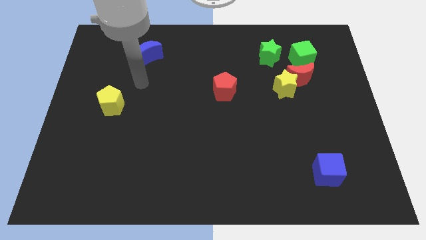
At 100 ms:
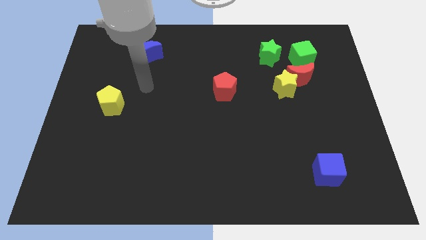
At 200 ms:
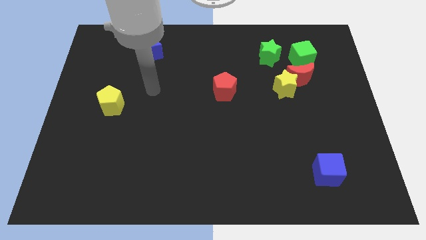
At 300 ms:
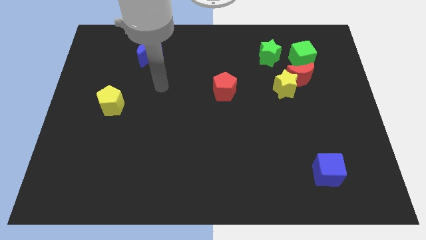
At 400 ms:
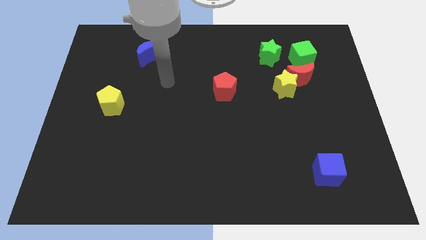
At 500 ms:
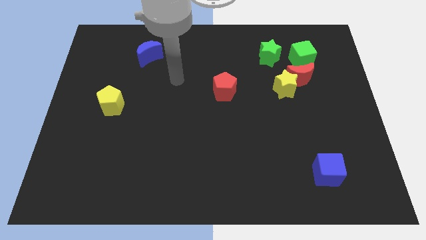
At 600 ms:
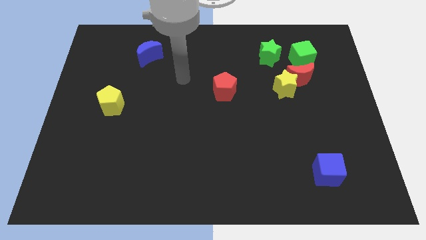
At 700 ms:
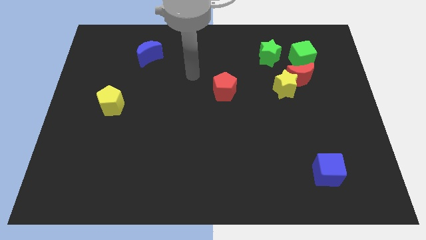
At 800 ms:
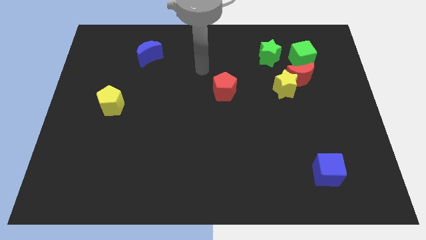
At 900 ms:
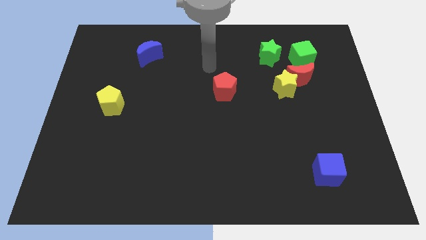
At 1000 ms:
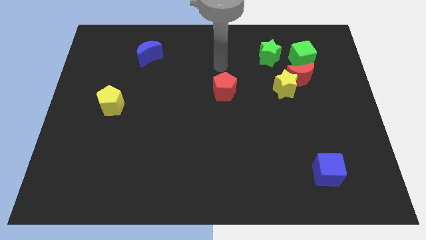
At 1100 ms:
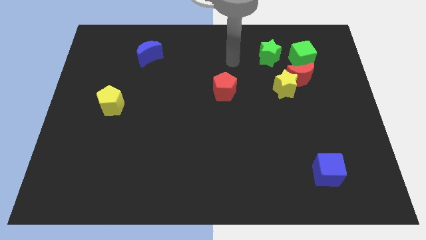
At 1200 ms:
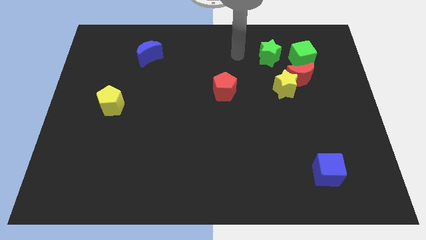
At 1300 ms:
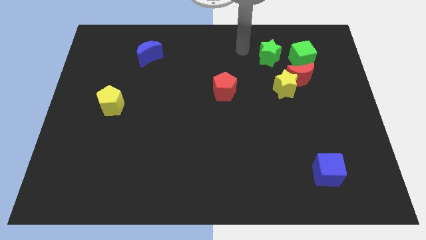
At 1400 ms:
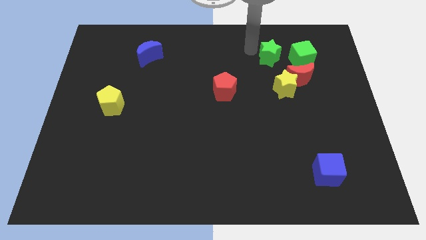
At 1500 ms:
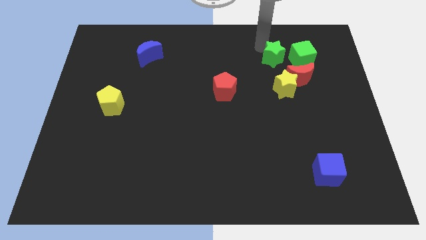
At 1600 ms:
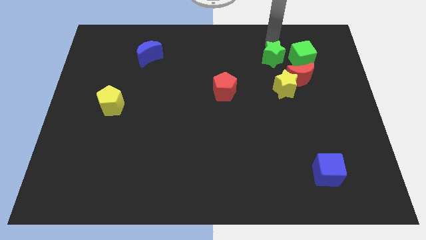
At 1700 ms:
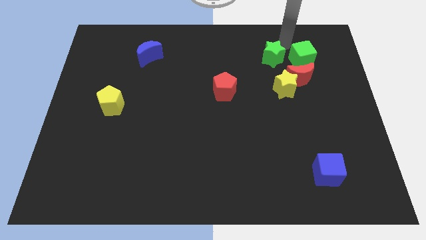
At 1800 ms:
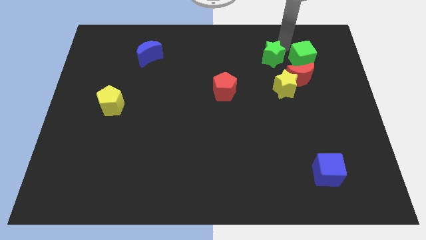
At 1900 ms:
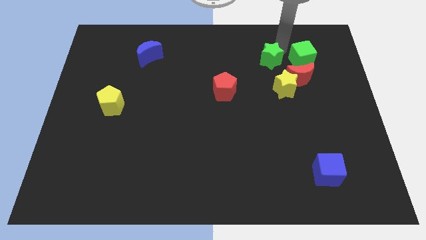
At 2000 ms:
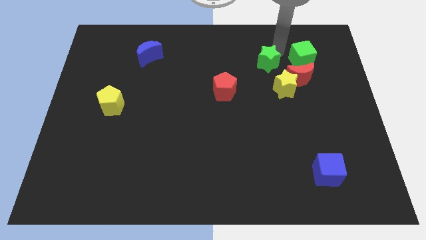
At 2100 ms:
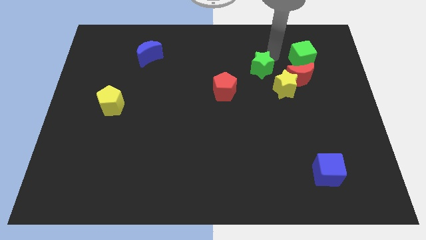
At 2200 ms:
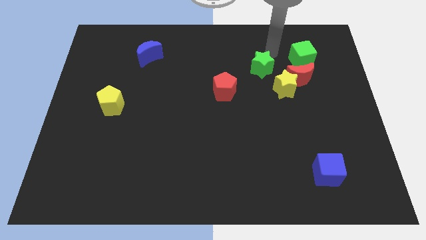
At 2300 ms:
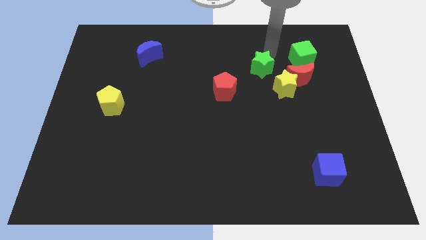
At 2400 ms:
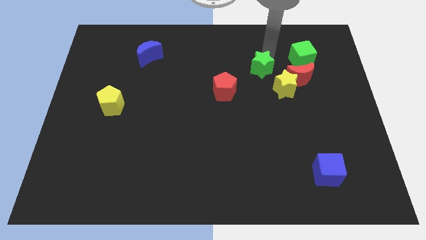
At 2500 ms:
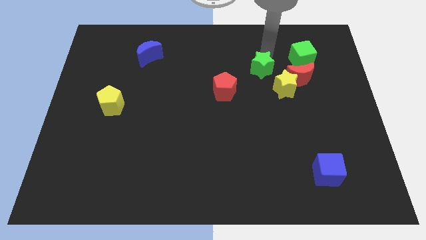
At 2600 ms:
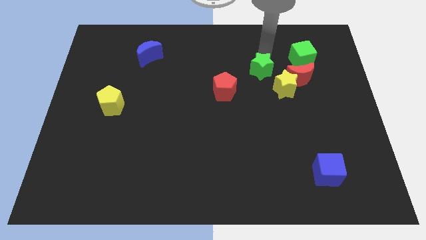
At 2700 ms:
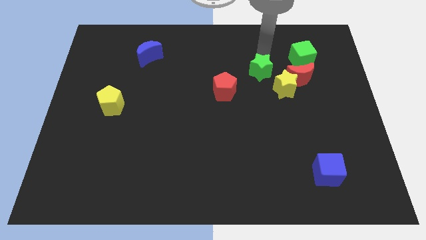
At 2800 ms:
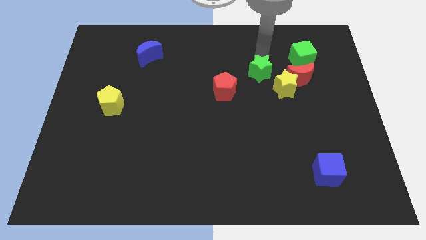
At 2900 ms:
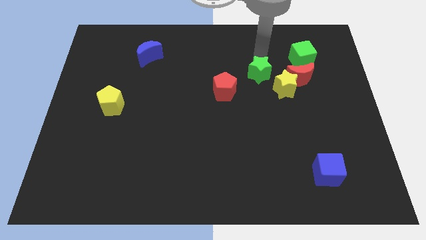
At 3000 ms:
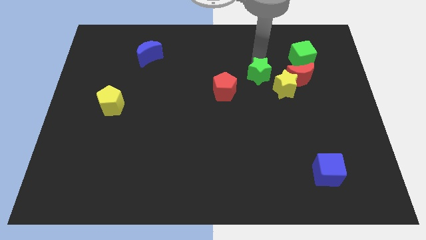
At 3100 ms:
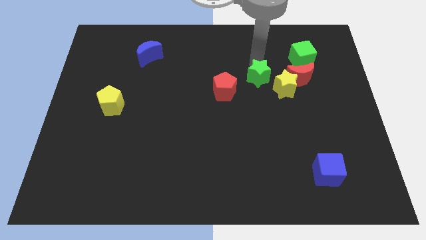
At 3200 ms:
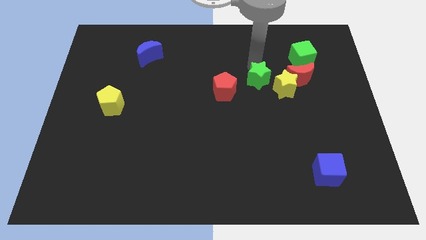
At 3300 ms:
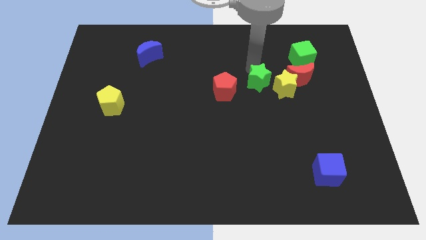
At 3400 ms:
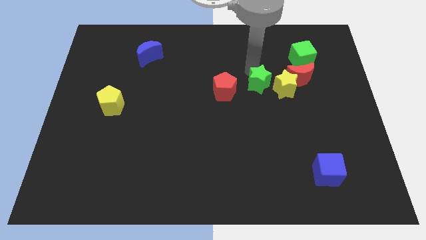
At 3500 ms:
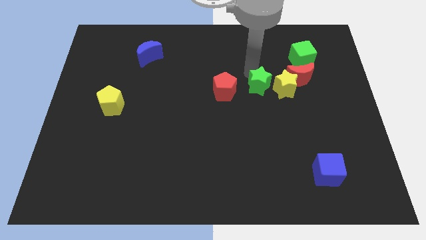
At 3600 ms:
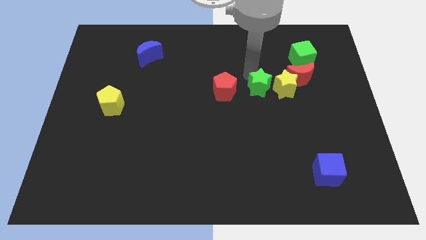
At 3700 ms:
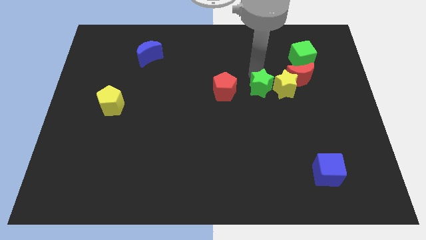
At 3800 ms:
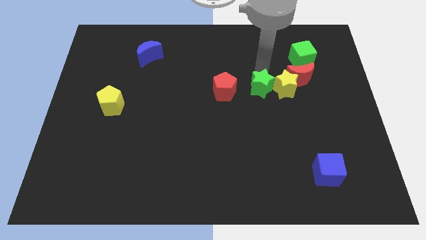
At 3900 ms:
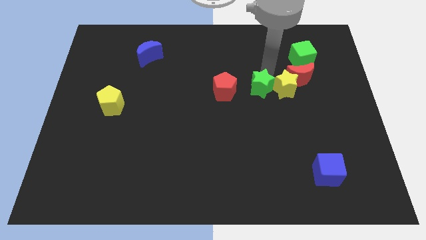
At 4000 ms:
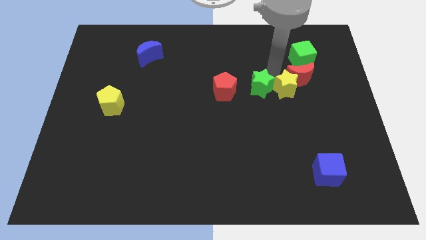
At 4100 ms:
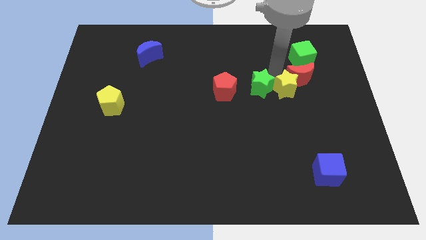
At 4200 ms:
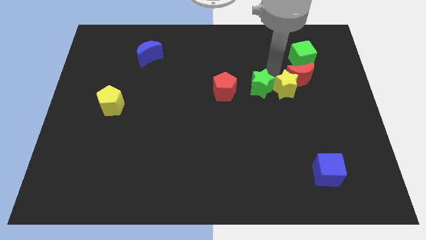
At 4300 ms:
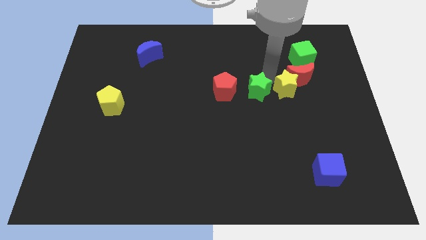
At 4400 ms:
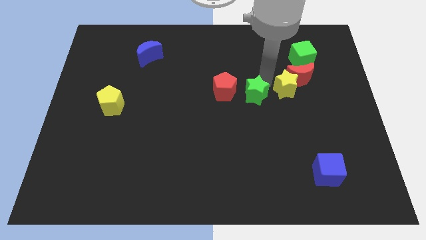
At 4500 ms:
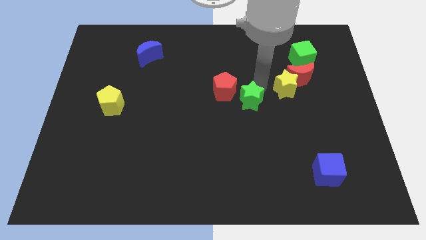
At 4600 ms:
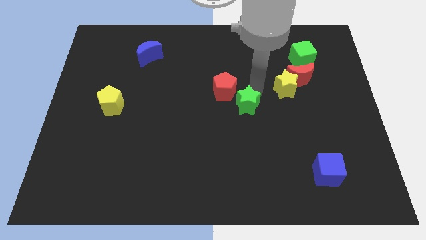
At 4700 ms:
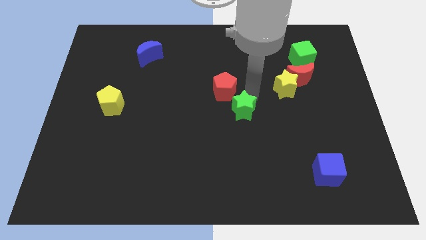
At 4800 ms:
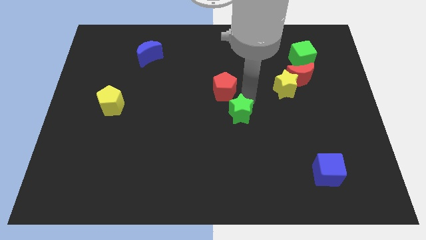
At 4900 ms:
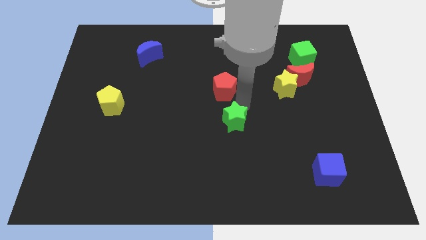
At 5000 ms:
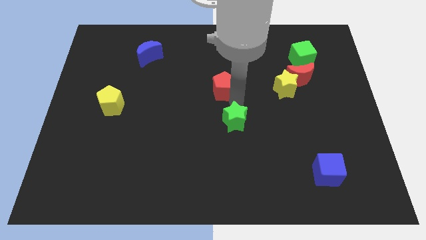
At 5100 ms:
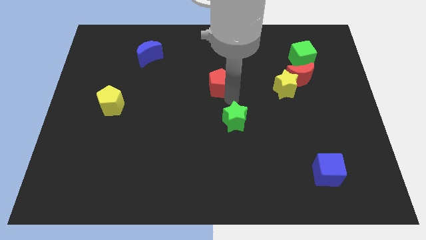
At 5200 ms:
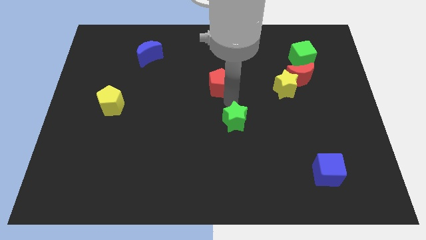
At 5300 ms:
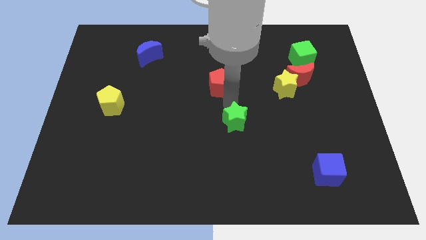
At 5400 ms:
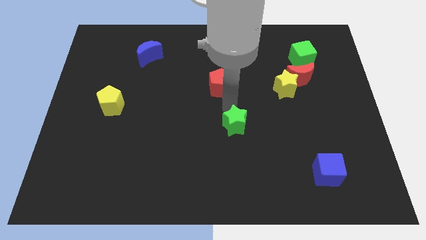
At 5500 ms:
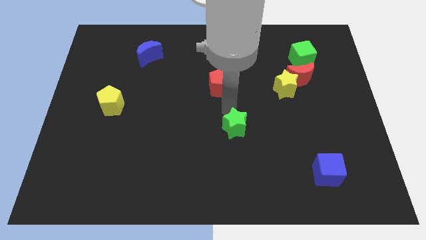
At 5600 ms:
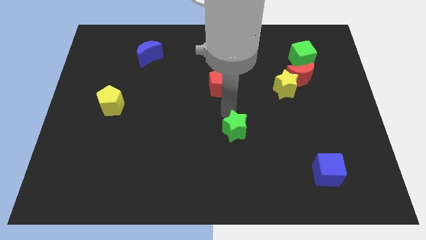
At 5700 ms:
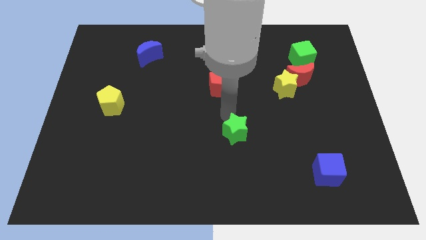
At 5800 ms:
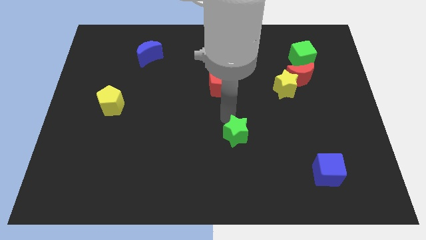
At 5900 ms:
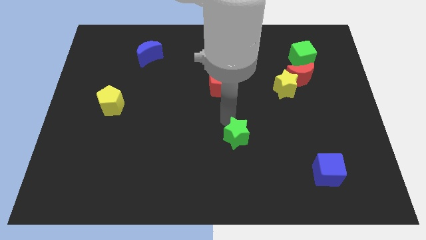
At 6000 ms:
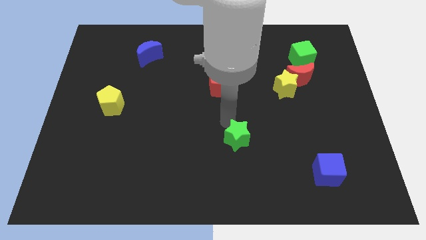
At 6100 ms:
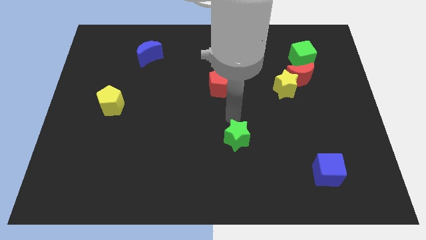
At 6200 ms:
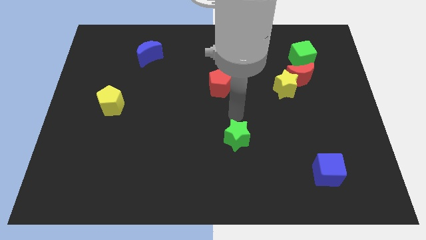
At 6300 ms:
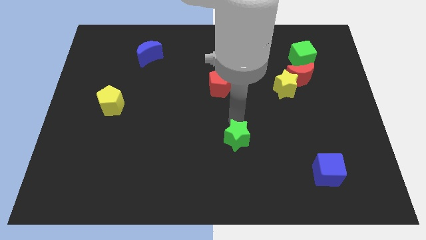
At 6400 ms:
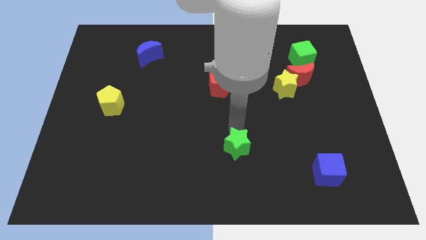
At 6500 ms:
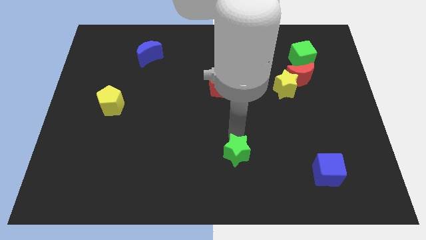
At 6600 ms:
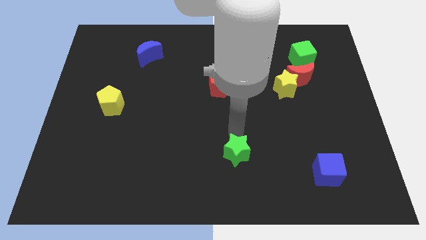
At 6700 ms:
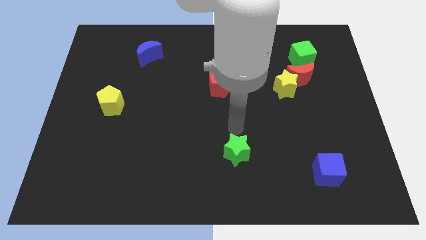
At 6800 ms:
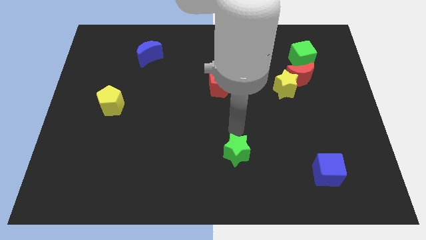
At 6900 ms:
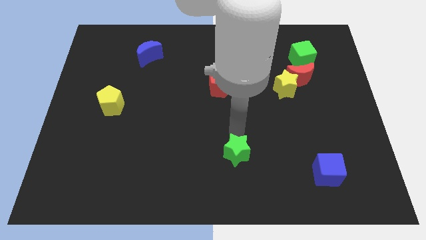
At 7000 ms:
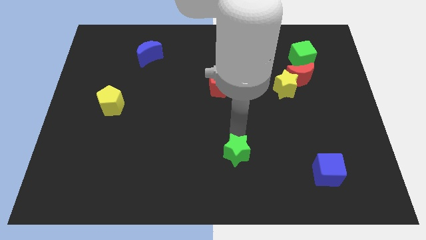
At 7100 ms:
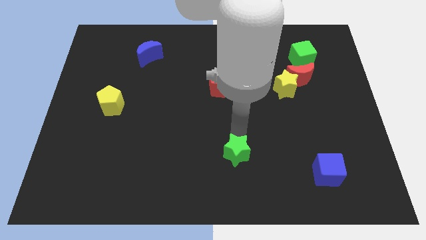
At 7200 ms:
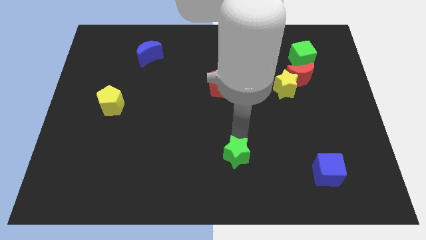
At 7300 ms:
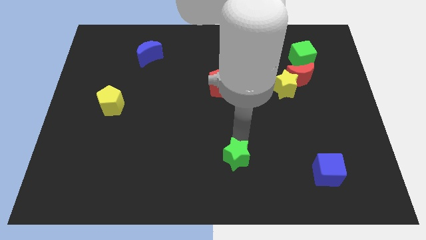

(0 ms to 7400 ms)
put the green star to the bottom
